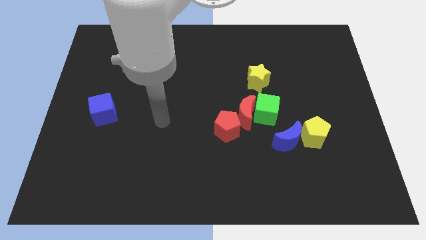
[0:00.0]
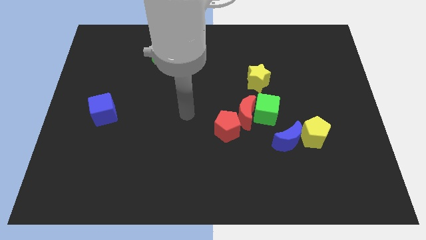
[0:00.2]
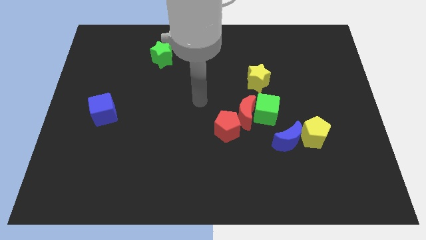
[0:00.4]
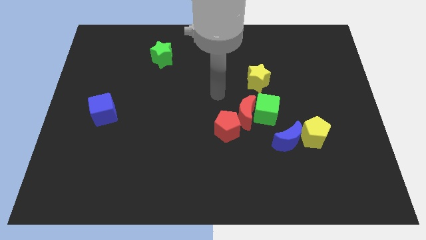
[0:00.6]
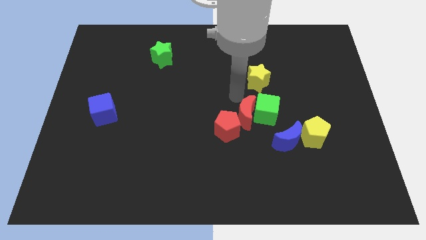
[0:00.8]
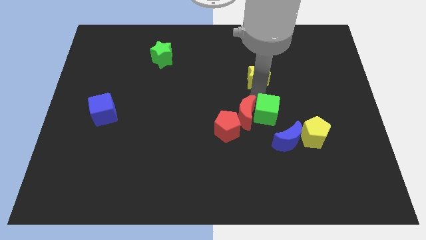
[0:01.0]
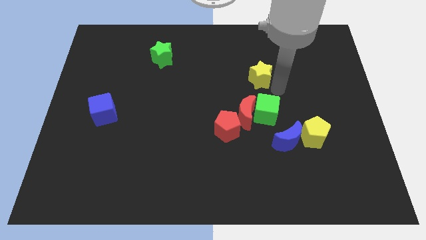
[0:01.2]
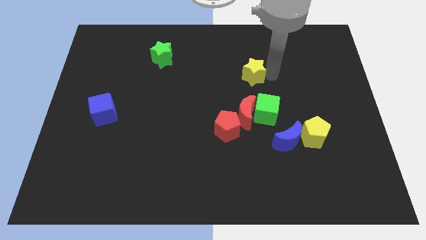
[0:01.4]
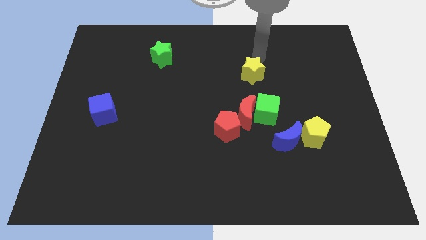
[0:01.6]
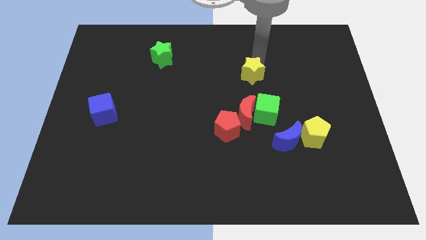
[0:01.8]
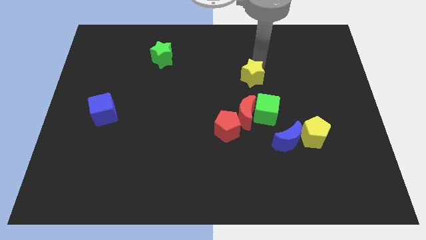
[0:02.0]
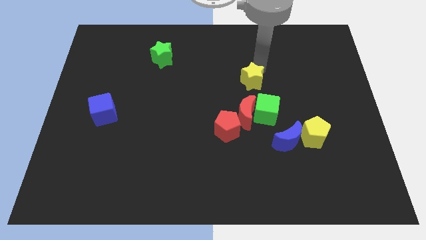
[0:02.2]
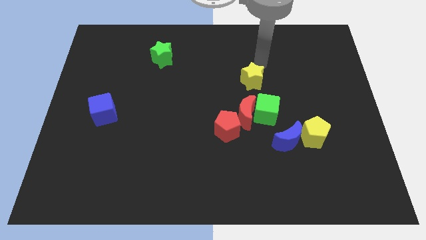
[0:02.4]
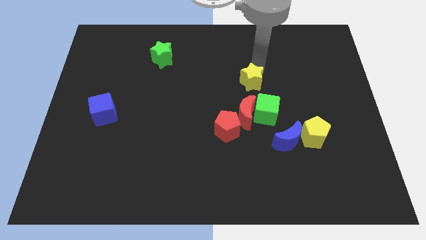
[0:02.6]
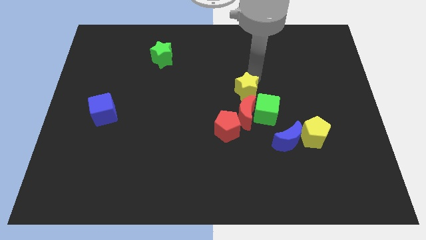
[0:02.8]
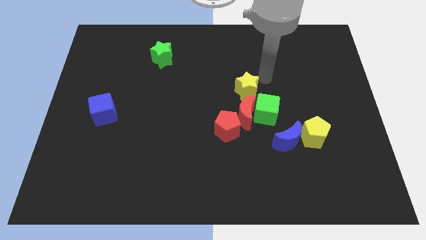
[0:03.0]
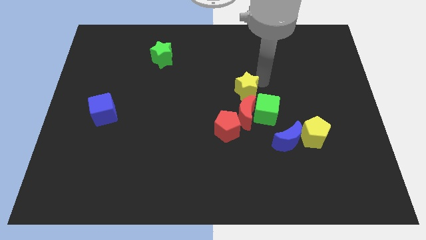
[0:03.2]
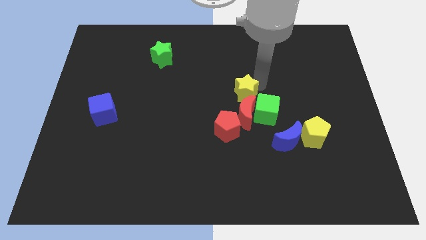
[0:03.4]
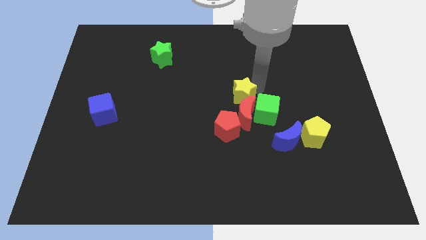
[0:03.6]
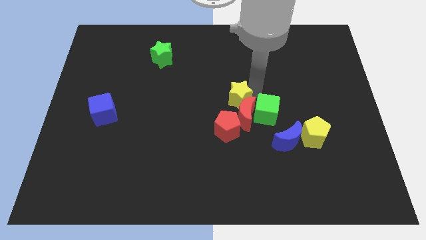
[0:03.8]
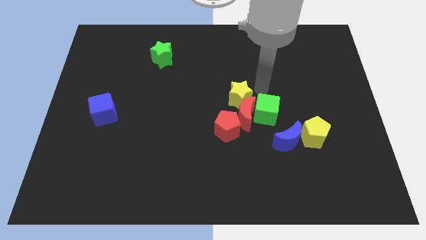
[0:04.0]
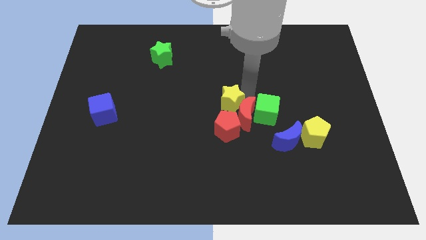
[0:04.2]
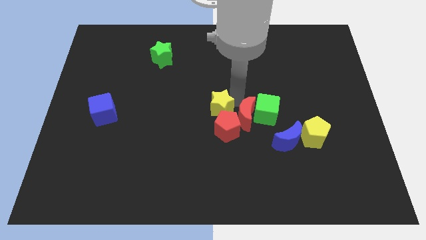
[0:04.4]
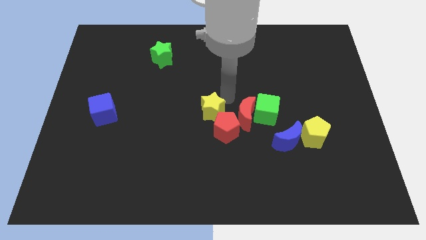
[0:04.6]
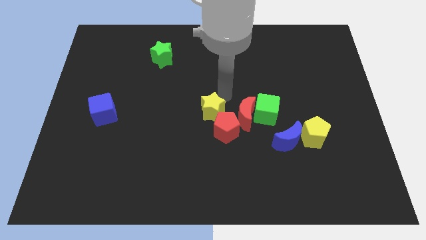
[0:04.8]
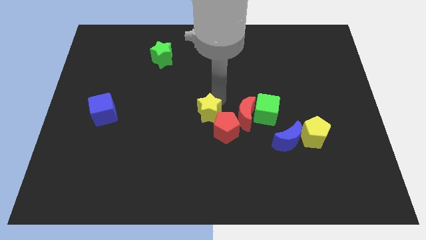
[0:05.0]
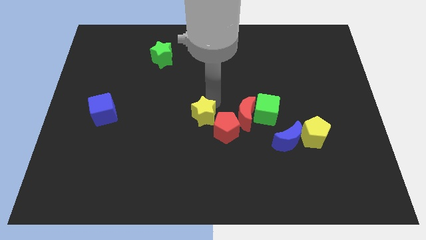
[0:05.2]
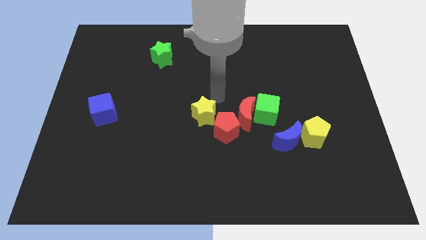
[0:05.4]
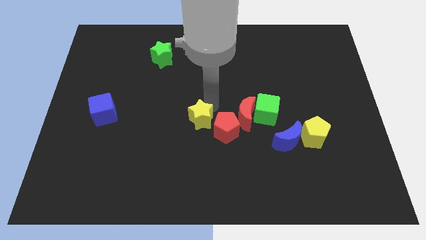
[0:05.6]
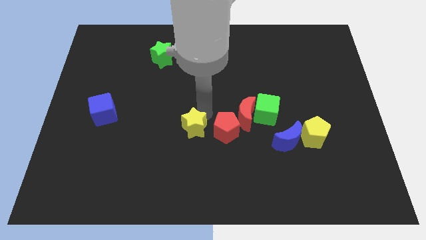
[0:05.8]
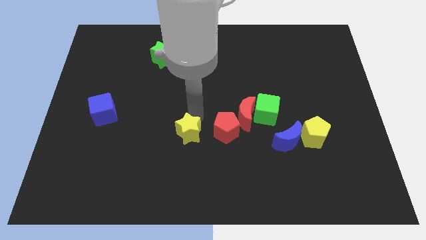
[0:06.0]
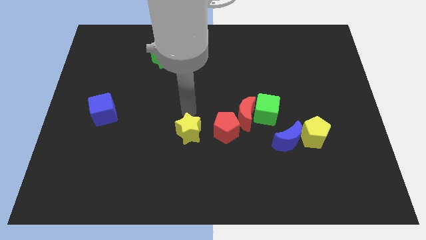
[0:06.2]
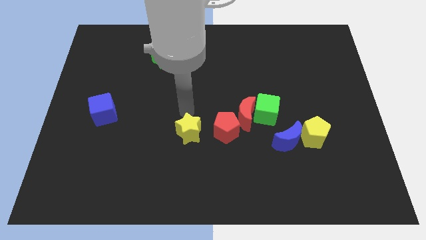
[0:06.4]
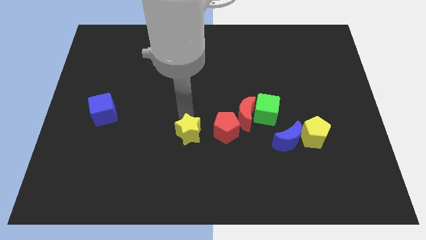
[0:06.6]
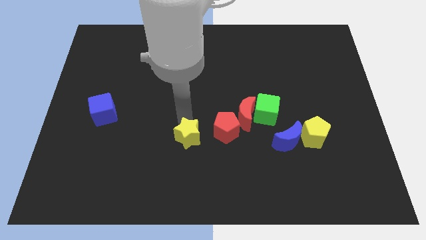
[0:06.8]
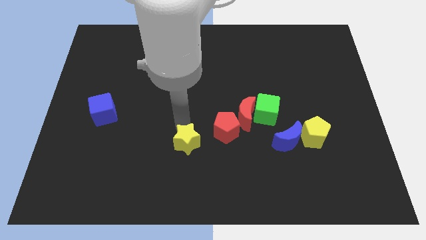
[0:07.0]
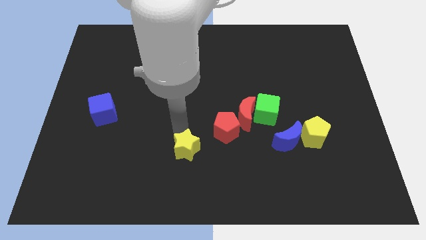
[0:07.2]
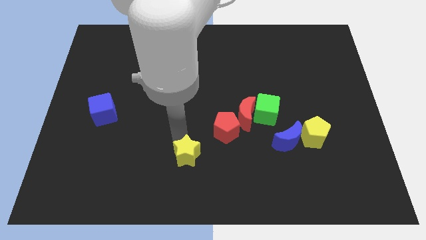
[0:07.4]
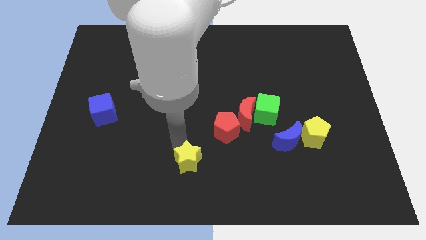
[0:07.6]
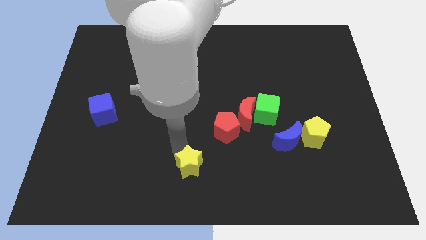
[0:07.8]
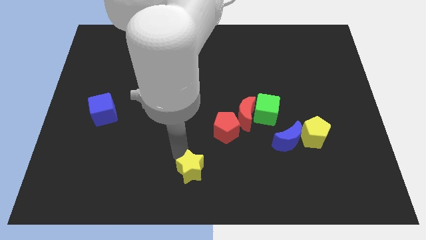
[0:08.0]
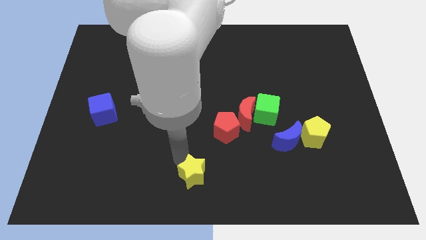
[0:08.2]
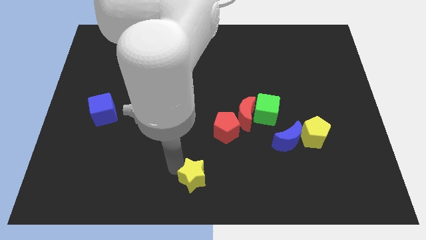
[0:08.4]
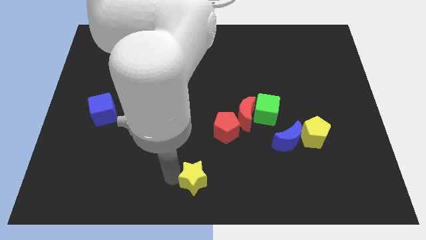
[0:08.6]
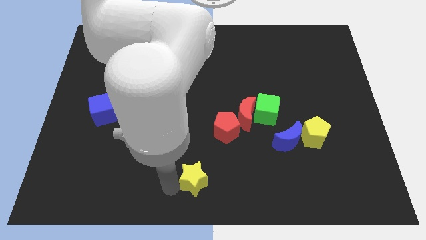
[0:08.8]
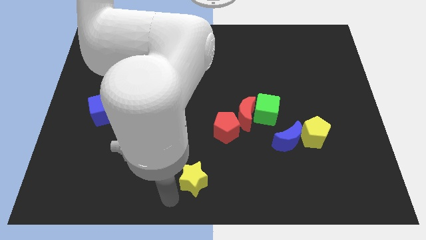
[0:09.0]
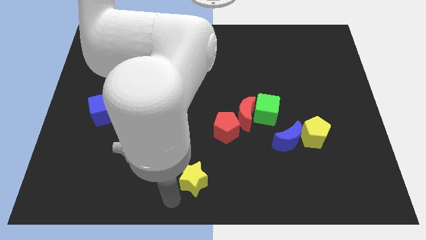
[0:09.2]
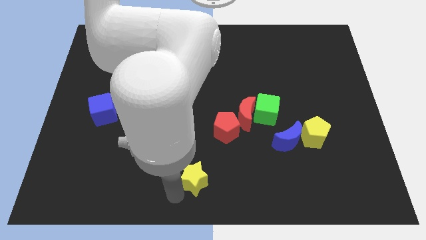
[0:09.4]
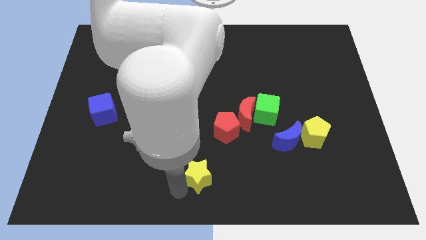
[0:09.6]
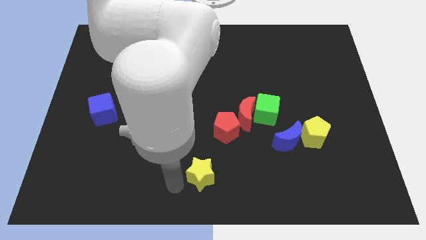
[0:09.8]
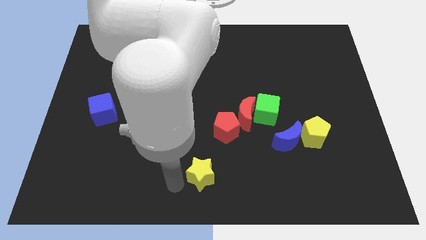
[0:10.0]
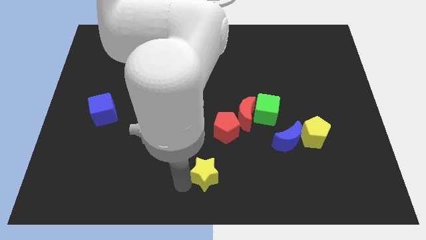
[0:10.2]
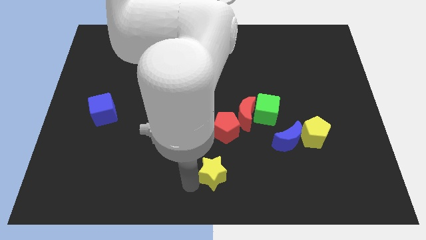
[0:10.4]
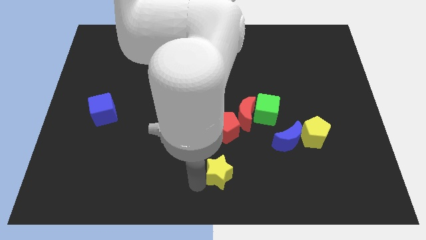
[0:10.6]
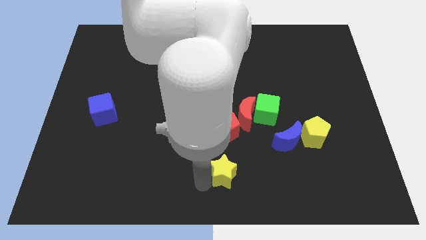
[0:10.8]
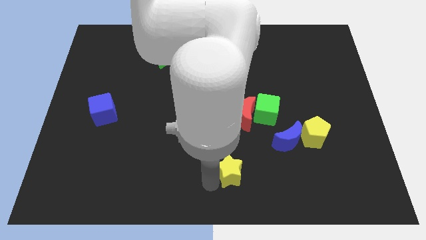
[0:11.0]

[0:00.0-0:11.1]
slide the yellow star to the bottom of the red moon

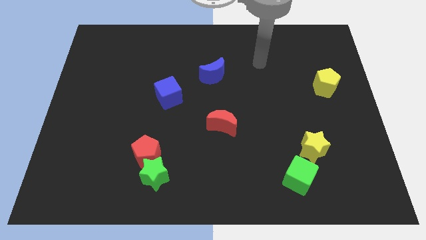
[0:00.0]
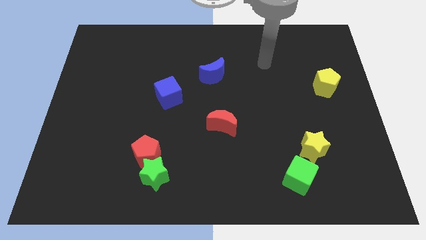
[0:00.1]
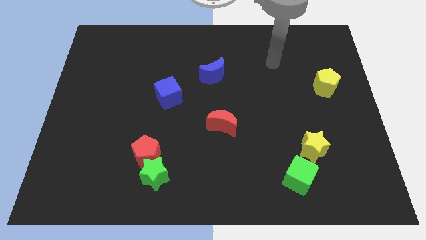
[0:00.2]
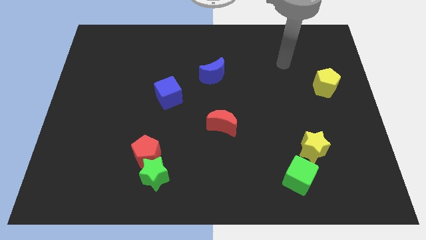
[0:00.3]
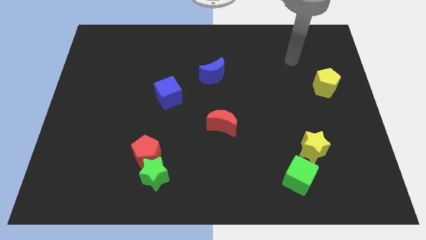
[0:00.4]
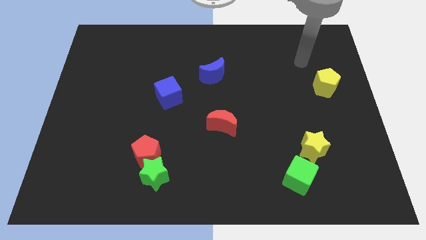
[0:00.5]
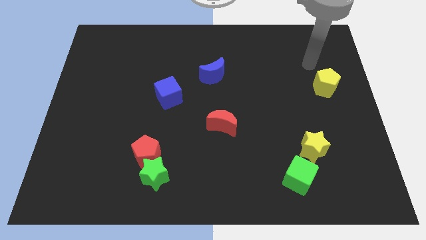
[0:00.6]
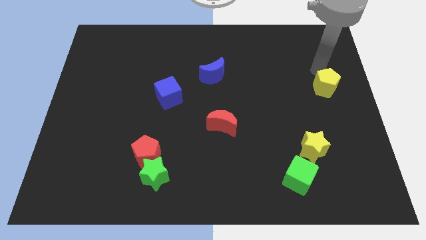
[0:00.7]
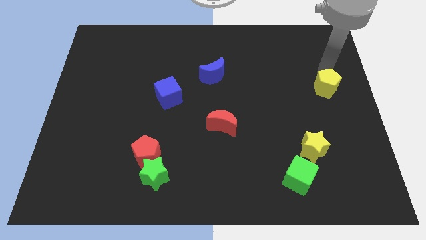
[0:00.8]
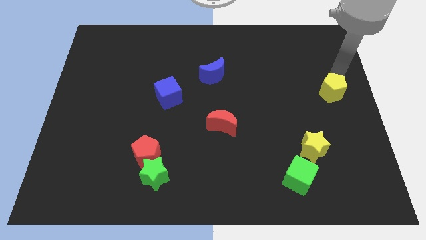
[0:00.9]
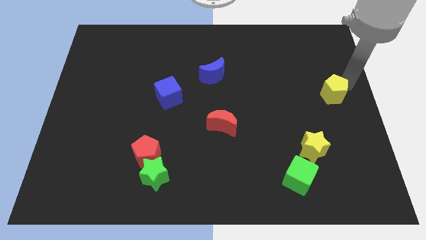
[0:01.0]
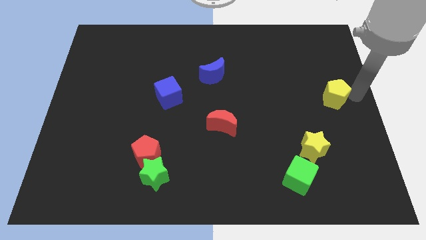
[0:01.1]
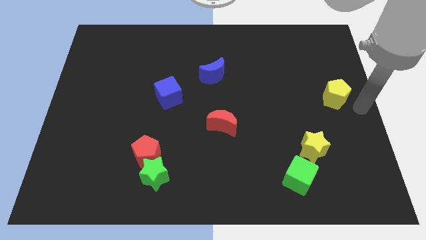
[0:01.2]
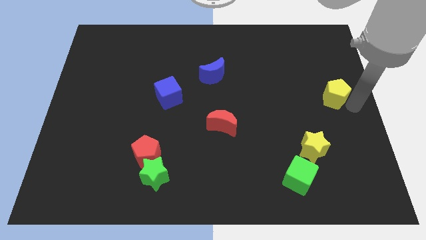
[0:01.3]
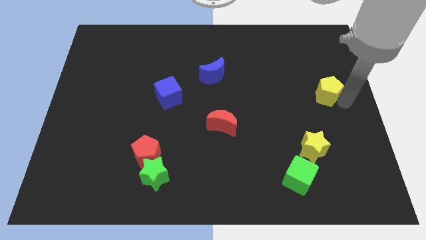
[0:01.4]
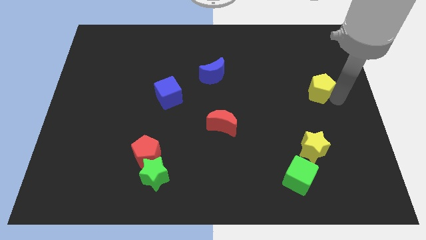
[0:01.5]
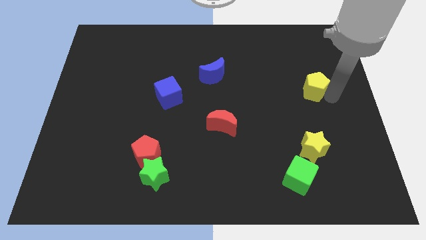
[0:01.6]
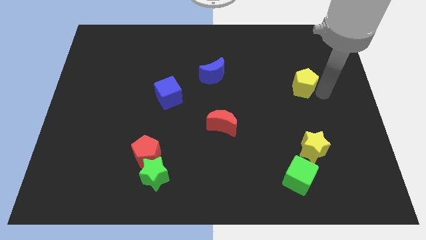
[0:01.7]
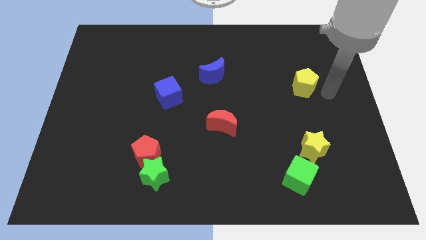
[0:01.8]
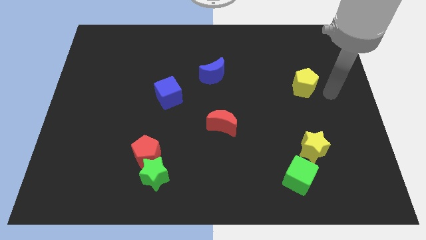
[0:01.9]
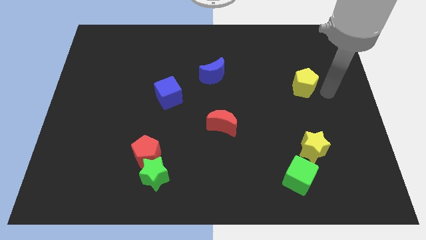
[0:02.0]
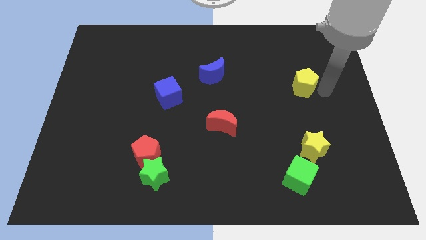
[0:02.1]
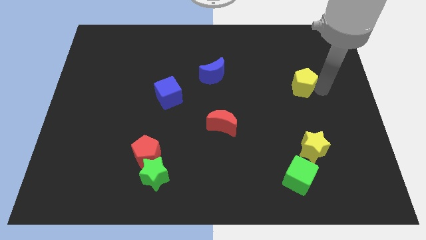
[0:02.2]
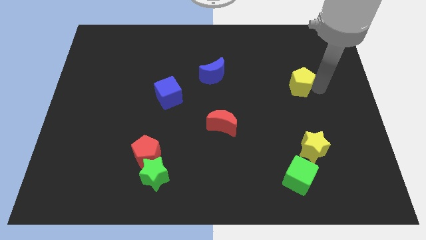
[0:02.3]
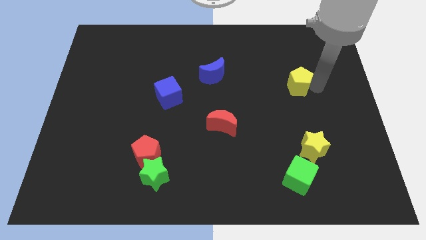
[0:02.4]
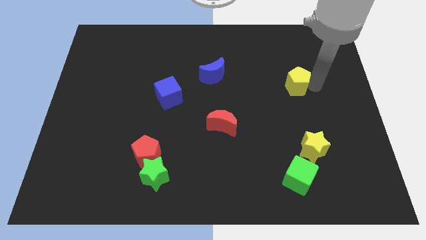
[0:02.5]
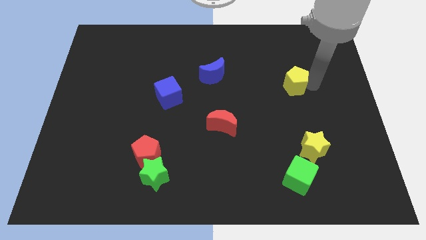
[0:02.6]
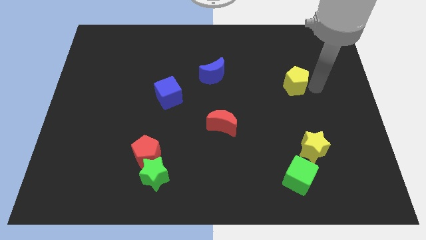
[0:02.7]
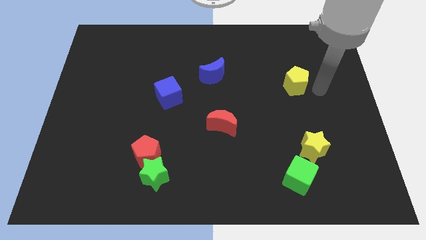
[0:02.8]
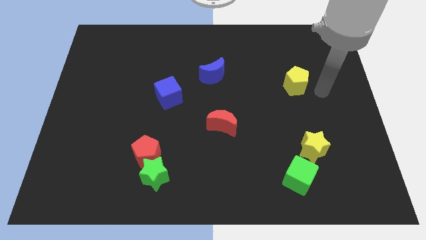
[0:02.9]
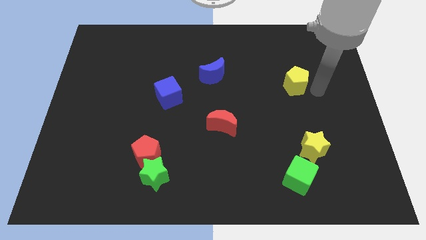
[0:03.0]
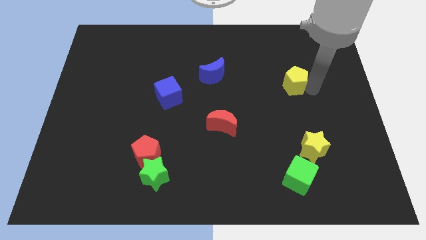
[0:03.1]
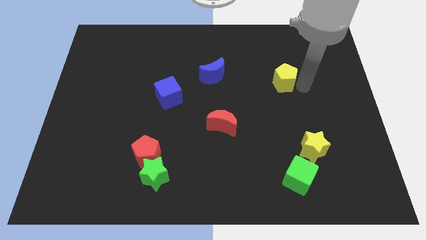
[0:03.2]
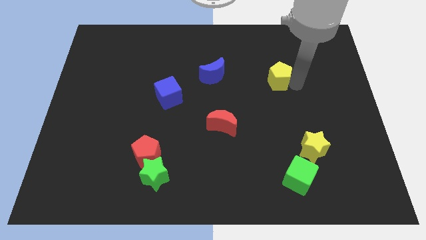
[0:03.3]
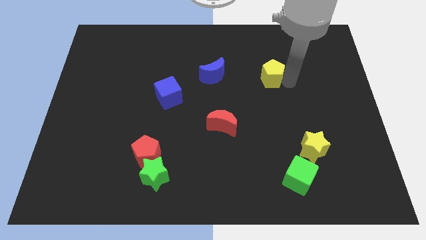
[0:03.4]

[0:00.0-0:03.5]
slide the yellow pentagon right of the blue moon
